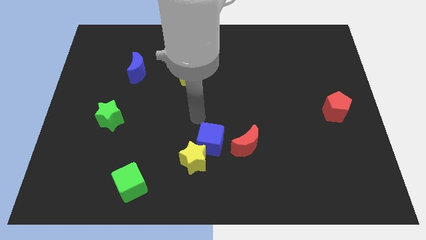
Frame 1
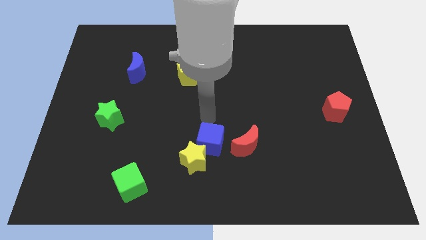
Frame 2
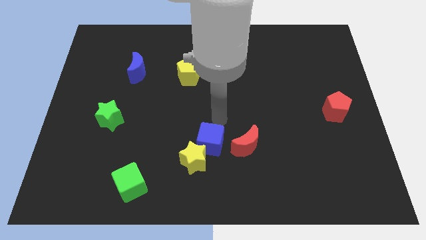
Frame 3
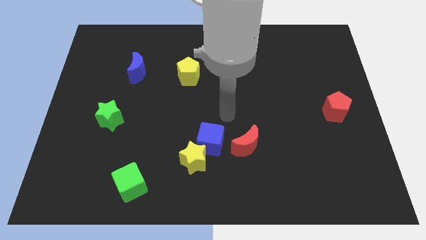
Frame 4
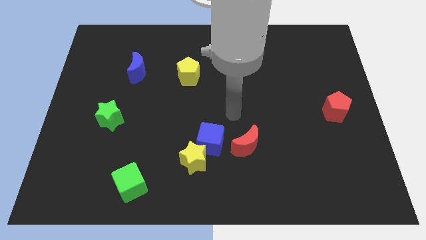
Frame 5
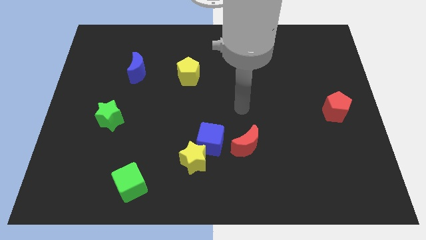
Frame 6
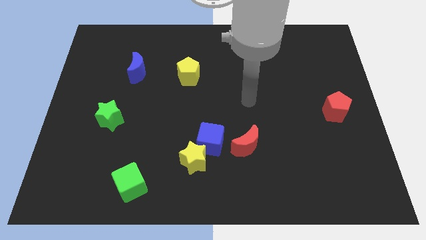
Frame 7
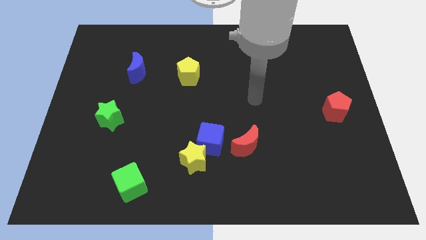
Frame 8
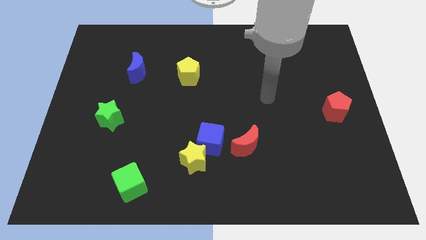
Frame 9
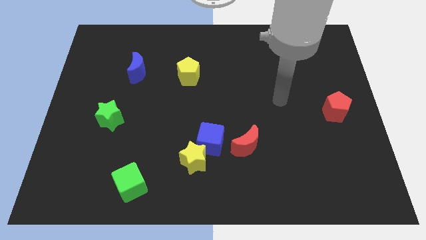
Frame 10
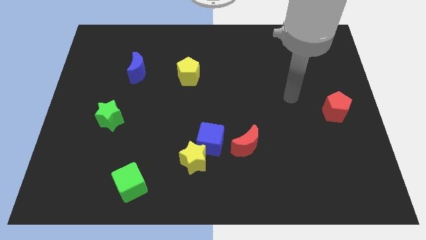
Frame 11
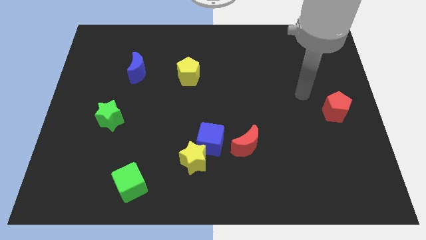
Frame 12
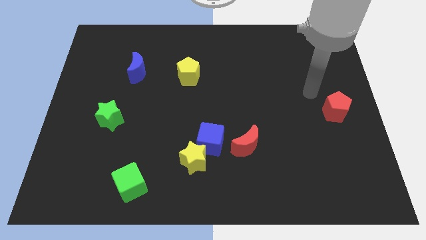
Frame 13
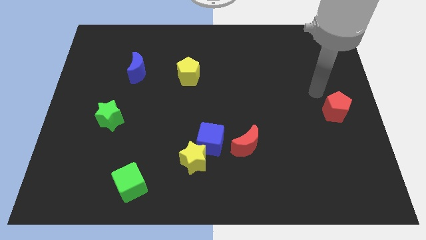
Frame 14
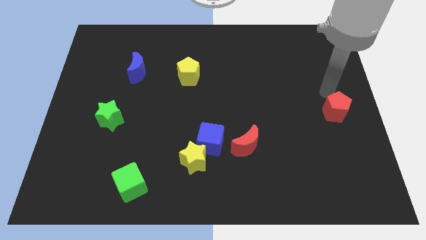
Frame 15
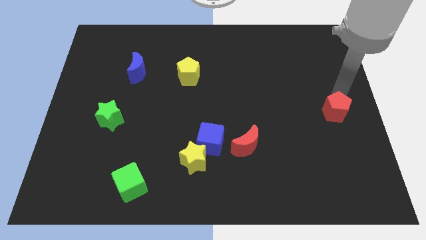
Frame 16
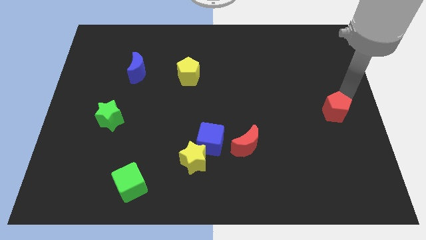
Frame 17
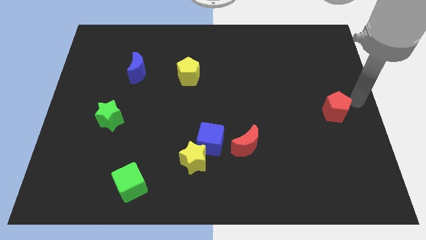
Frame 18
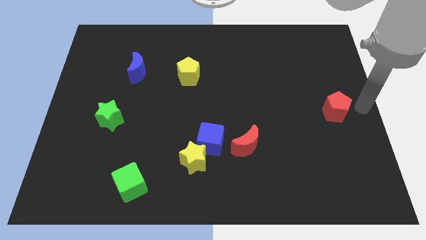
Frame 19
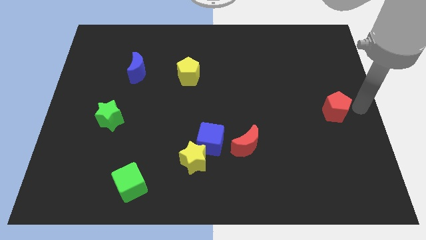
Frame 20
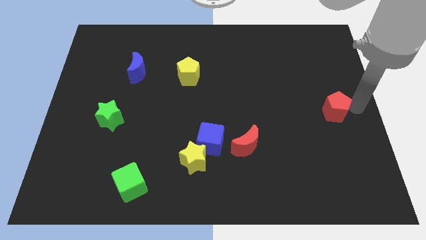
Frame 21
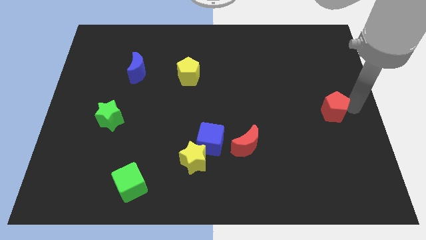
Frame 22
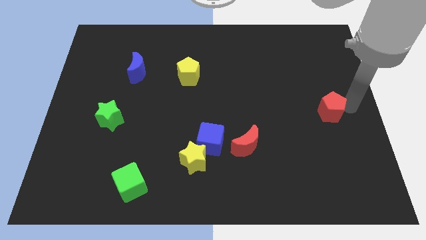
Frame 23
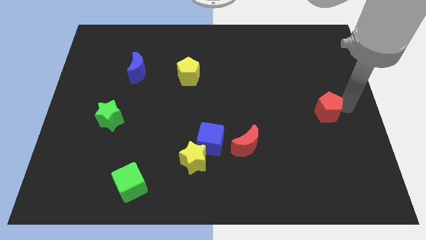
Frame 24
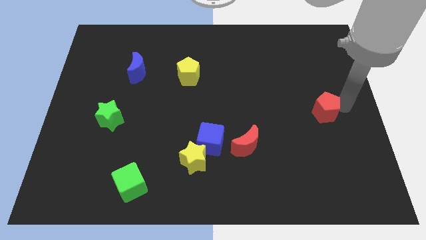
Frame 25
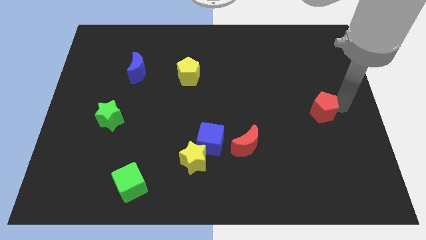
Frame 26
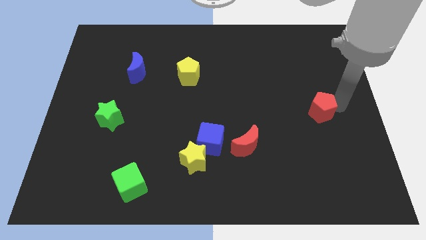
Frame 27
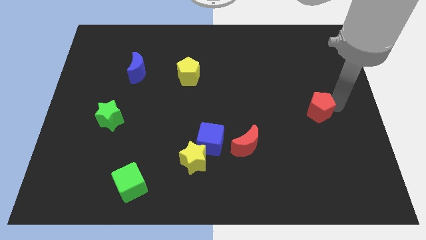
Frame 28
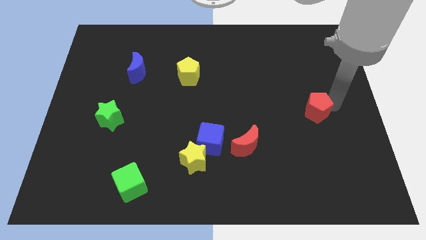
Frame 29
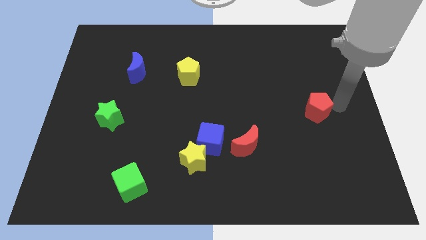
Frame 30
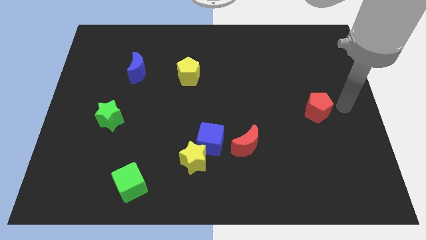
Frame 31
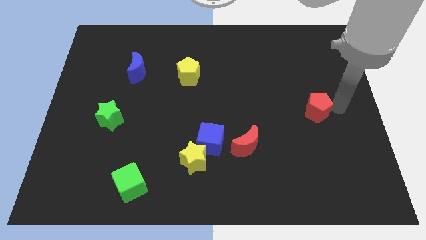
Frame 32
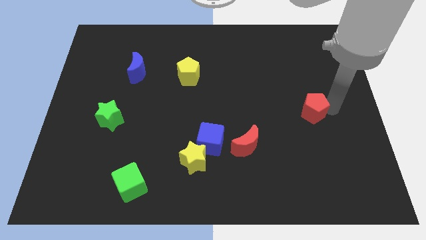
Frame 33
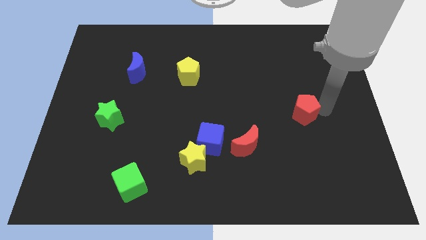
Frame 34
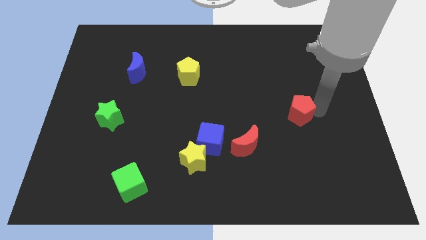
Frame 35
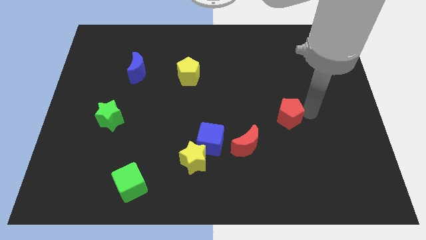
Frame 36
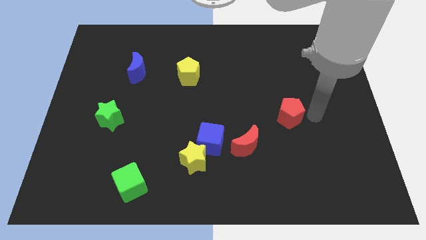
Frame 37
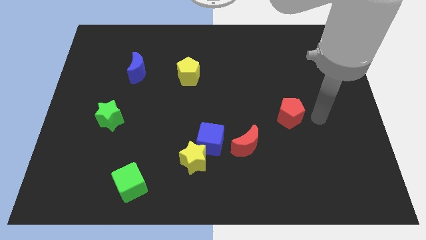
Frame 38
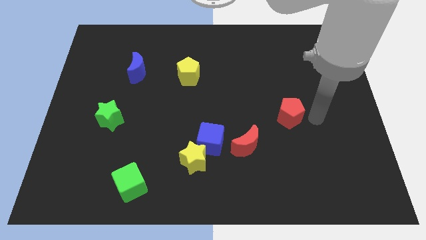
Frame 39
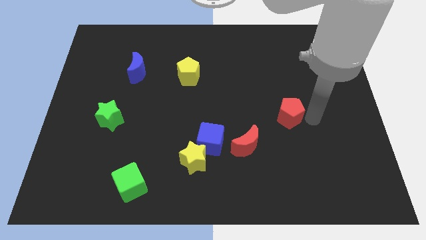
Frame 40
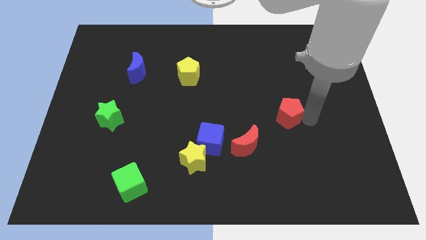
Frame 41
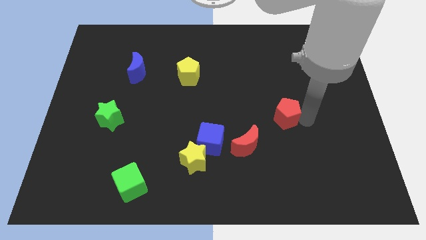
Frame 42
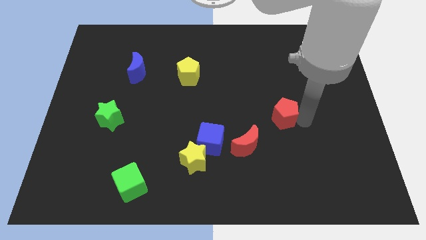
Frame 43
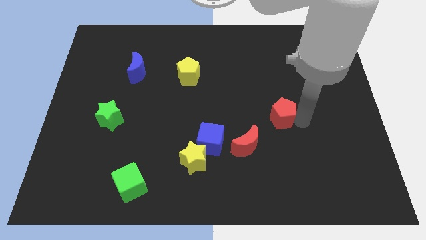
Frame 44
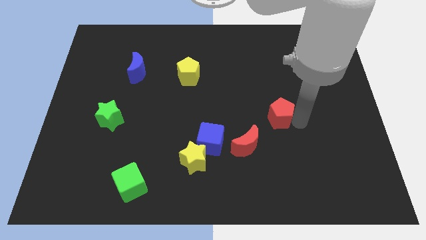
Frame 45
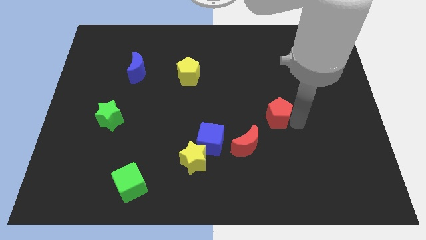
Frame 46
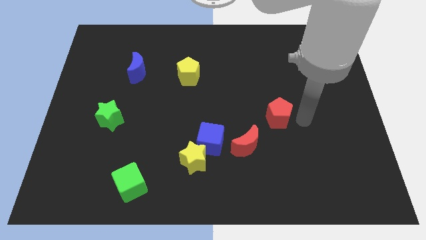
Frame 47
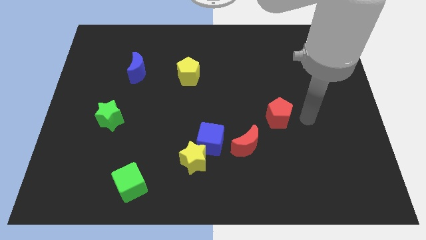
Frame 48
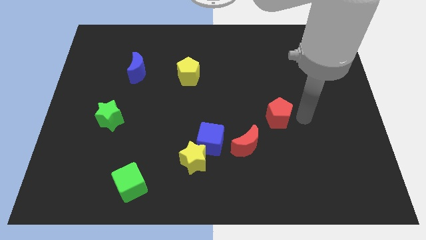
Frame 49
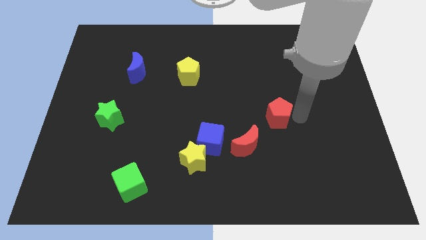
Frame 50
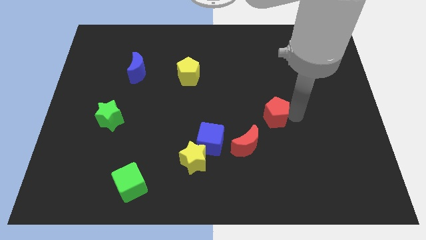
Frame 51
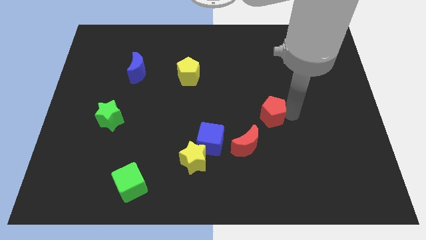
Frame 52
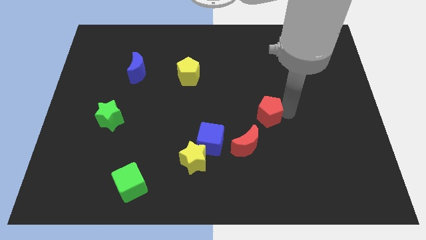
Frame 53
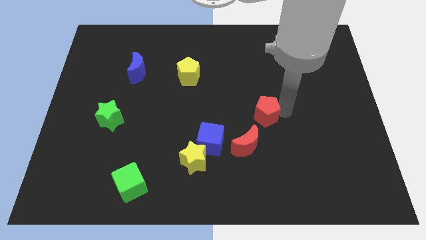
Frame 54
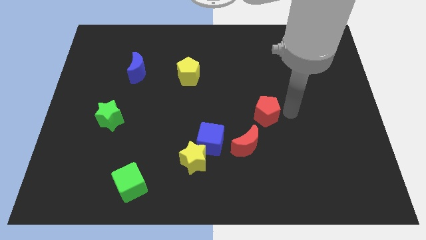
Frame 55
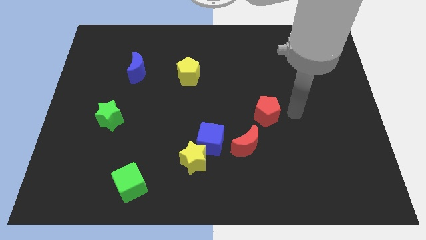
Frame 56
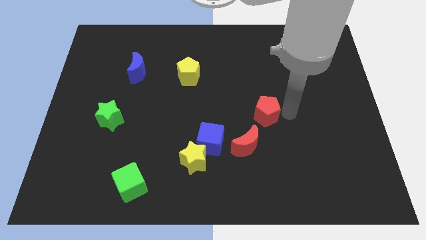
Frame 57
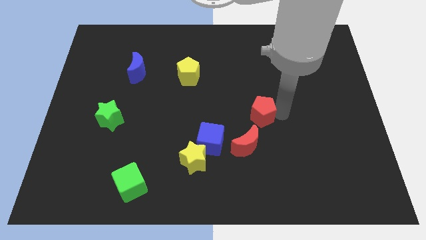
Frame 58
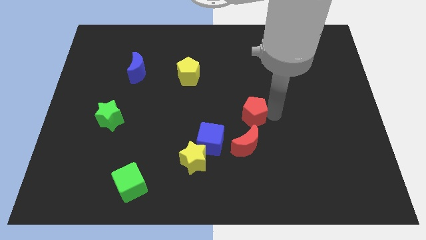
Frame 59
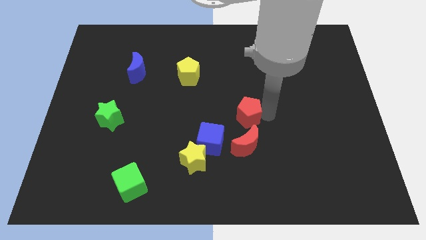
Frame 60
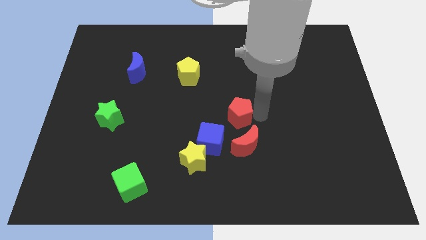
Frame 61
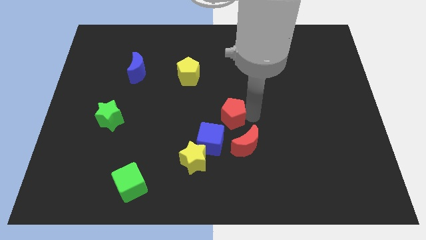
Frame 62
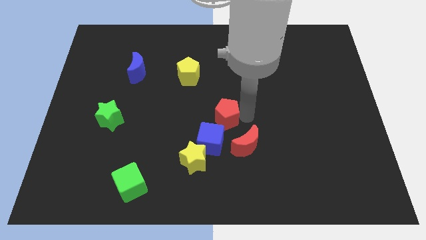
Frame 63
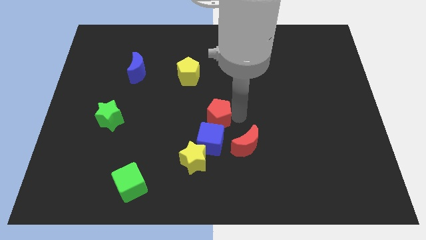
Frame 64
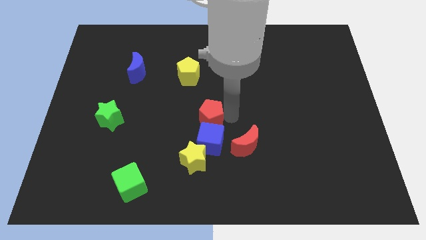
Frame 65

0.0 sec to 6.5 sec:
push the red pentagon to the top of the yellow star
